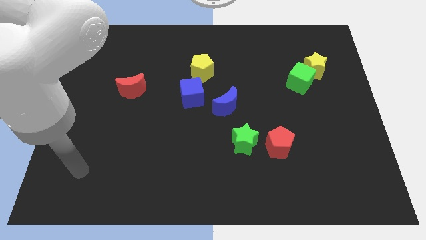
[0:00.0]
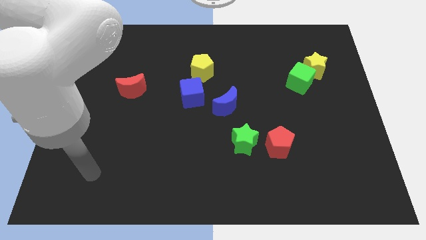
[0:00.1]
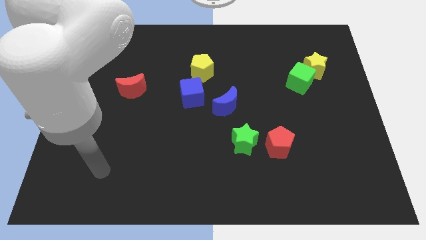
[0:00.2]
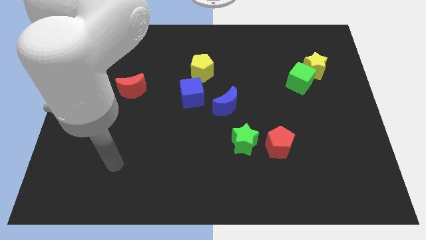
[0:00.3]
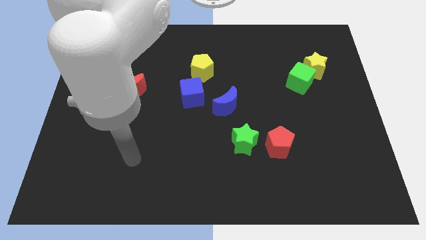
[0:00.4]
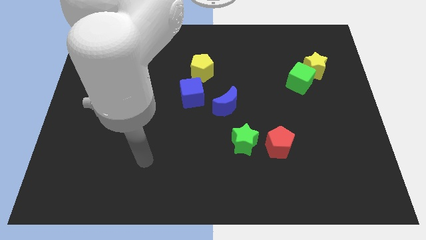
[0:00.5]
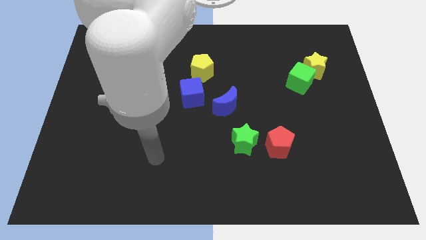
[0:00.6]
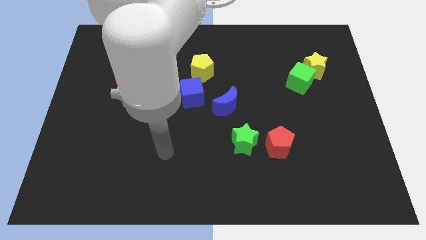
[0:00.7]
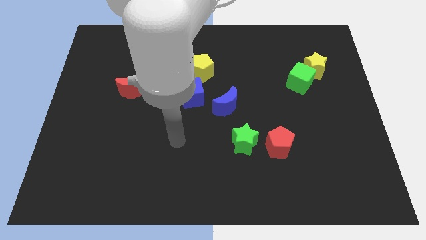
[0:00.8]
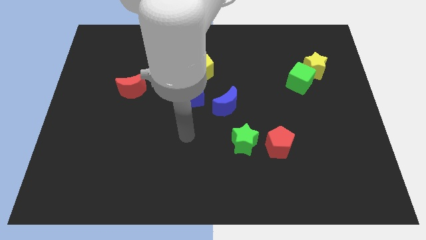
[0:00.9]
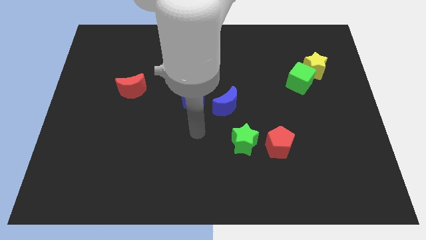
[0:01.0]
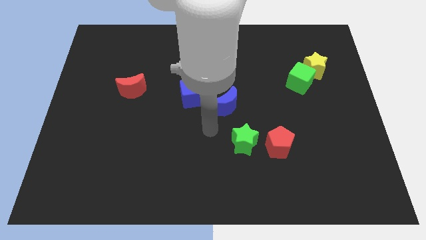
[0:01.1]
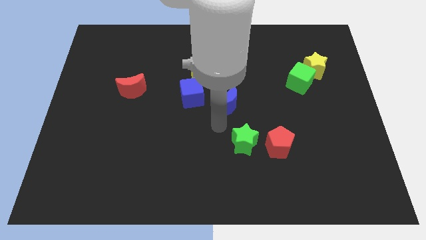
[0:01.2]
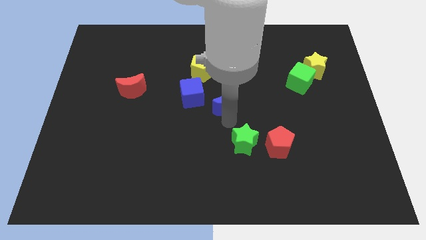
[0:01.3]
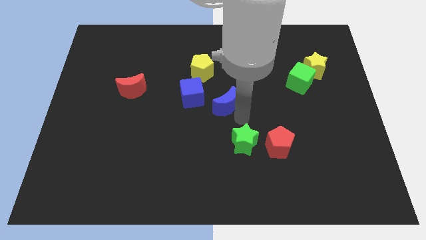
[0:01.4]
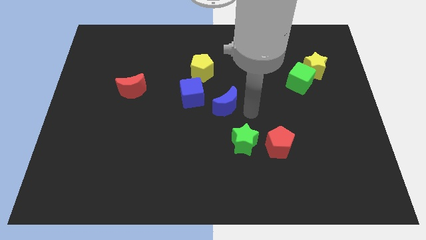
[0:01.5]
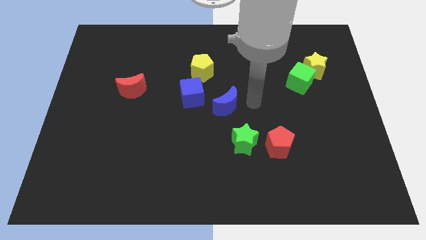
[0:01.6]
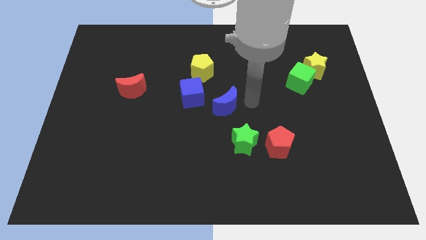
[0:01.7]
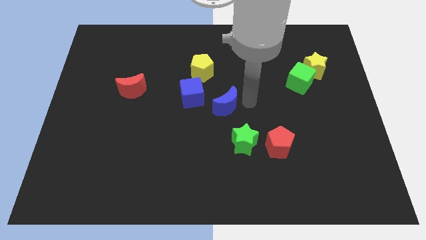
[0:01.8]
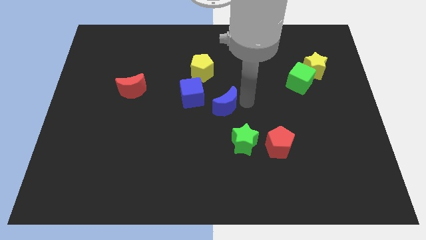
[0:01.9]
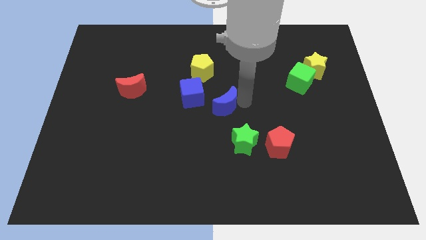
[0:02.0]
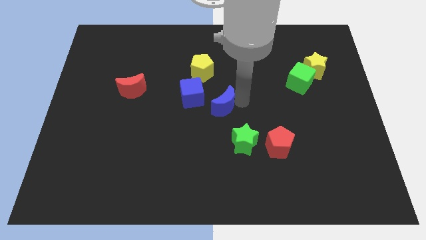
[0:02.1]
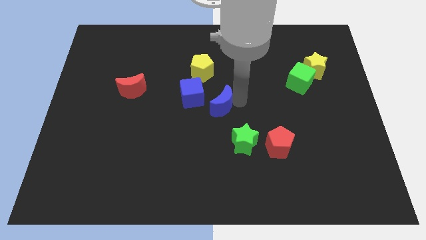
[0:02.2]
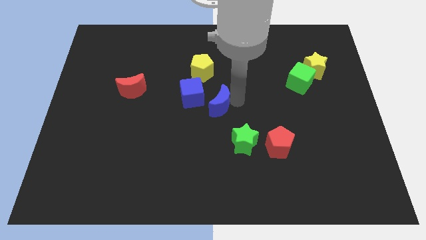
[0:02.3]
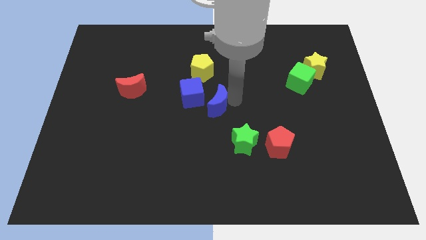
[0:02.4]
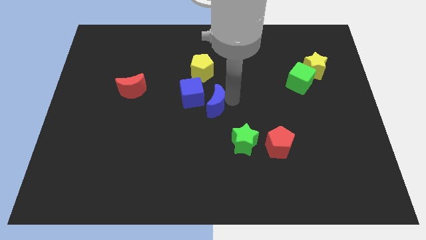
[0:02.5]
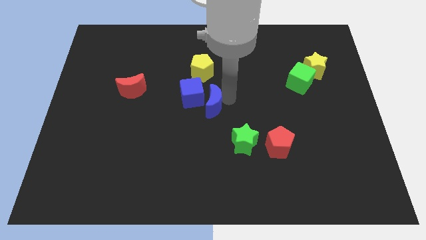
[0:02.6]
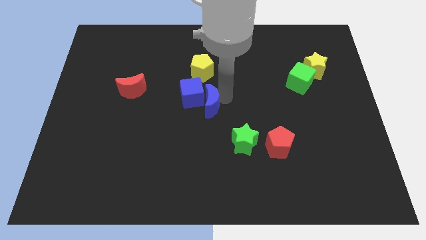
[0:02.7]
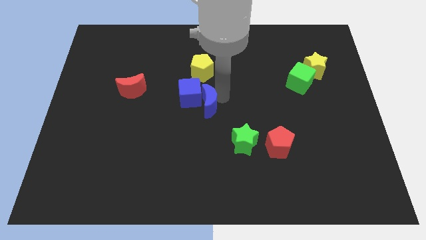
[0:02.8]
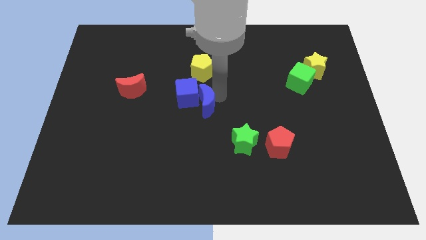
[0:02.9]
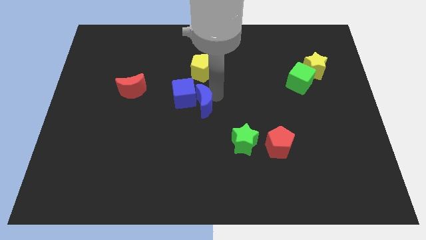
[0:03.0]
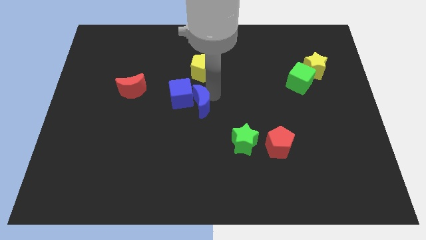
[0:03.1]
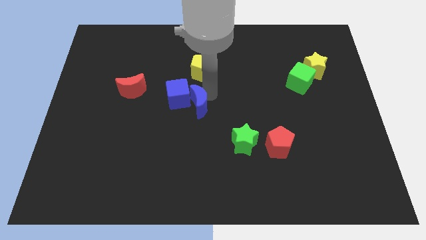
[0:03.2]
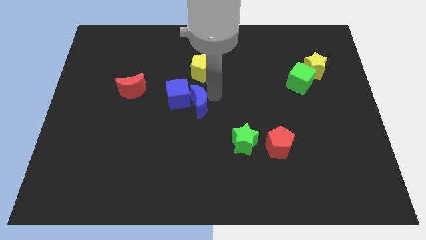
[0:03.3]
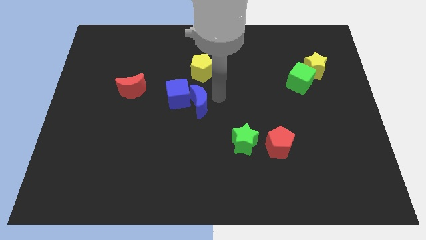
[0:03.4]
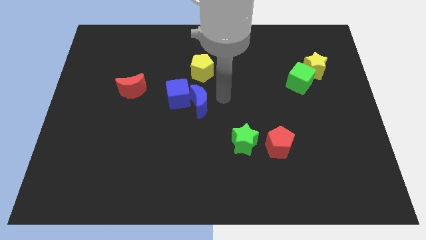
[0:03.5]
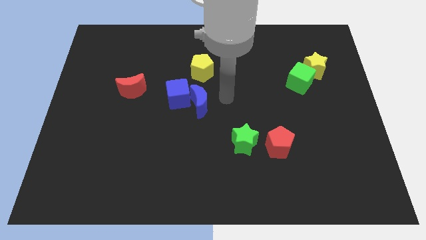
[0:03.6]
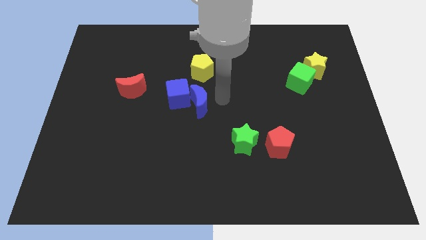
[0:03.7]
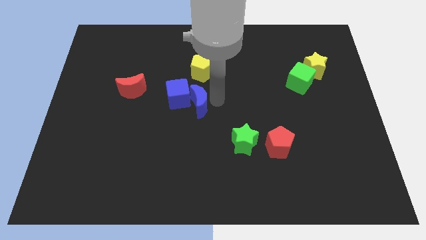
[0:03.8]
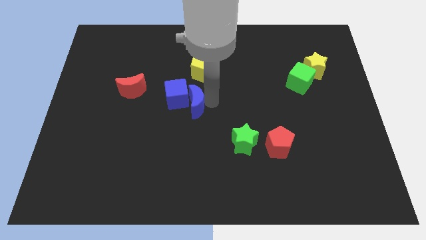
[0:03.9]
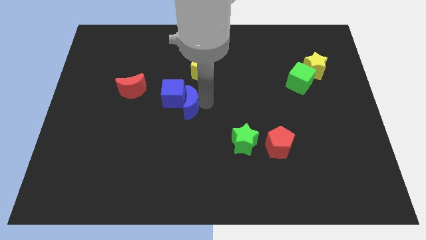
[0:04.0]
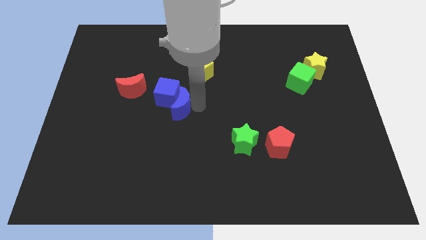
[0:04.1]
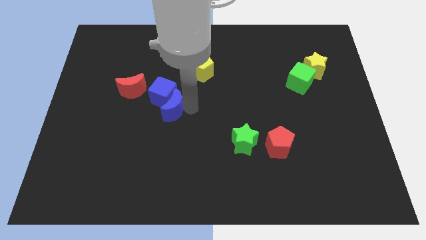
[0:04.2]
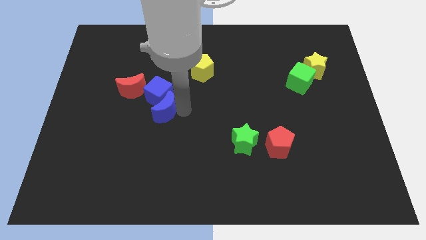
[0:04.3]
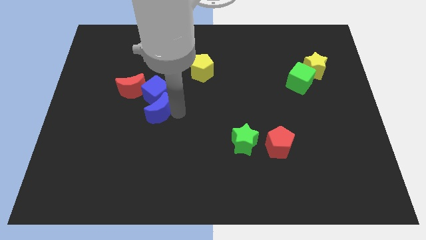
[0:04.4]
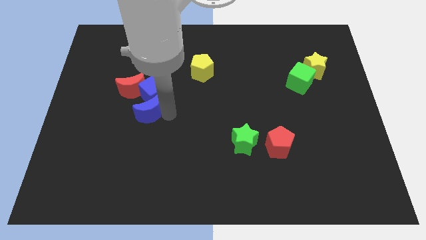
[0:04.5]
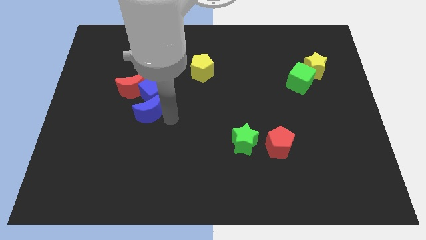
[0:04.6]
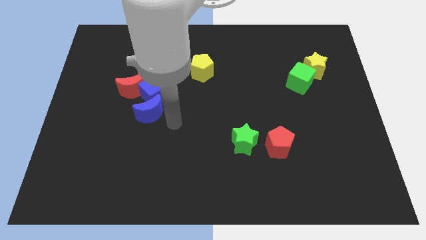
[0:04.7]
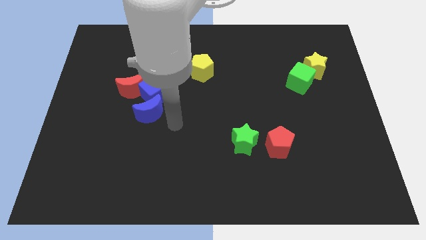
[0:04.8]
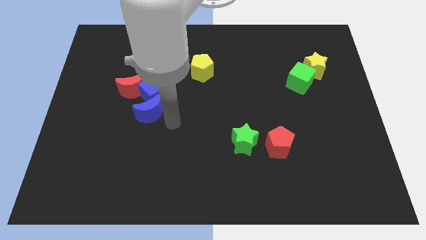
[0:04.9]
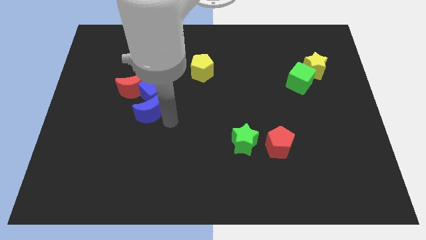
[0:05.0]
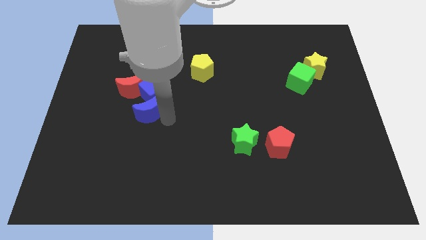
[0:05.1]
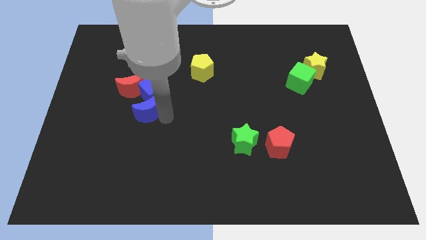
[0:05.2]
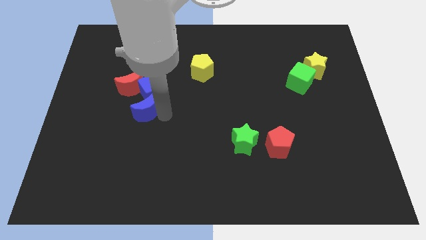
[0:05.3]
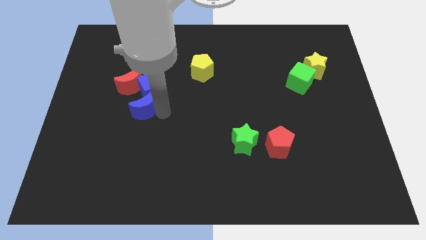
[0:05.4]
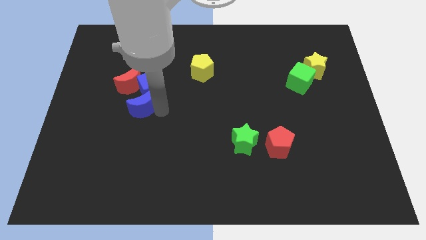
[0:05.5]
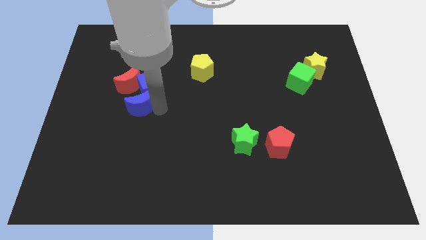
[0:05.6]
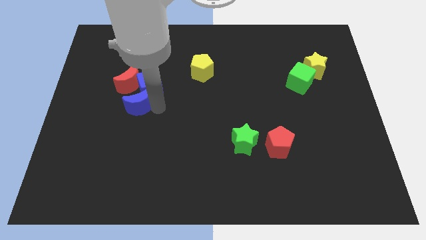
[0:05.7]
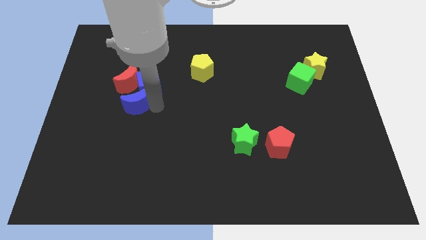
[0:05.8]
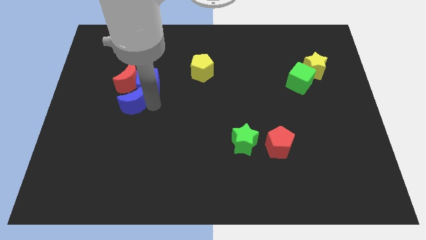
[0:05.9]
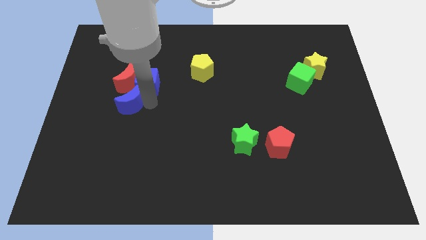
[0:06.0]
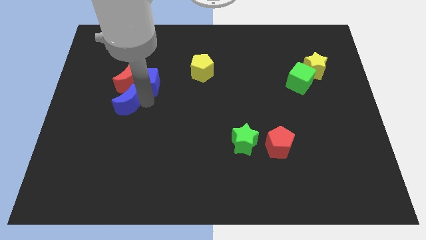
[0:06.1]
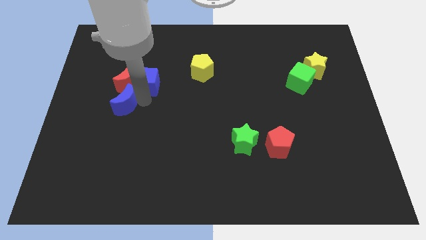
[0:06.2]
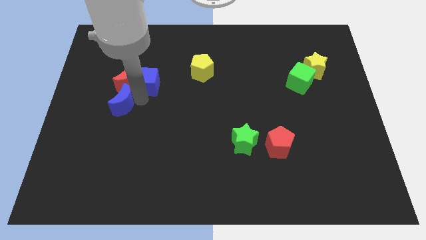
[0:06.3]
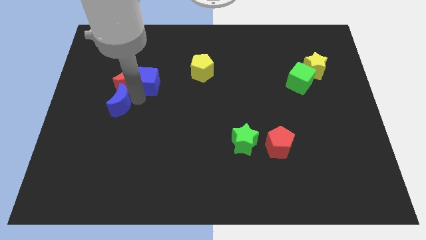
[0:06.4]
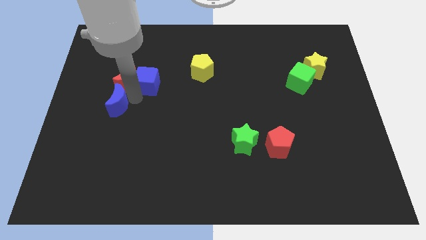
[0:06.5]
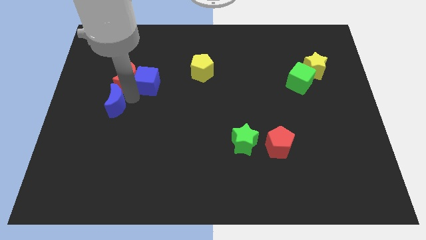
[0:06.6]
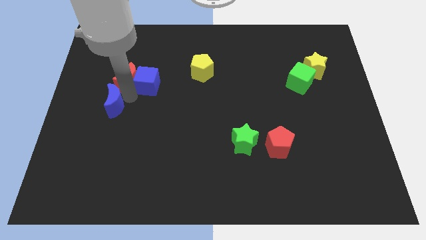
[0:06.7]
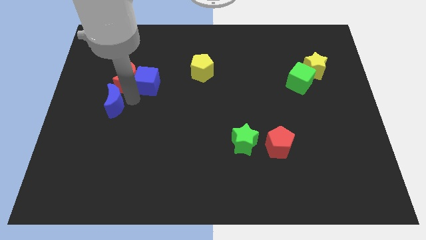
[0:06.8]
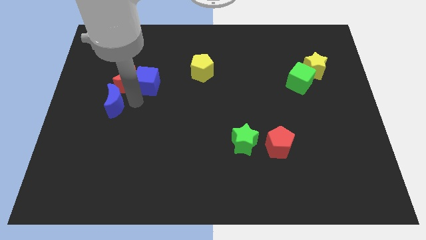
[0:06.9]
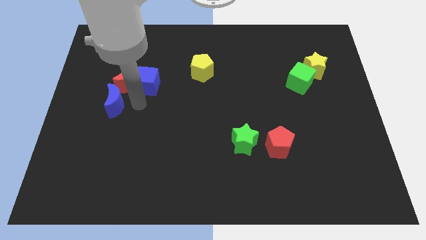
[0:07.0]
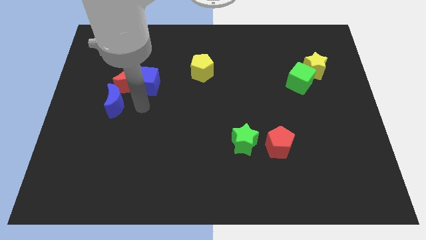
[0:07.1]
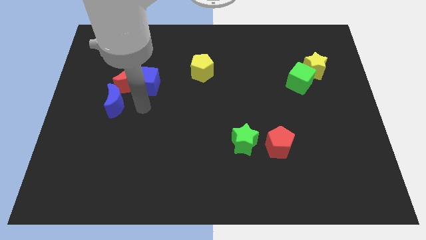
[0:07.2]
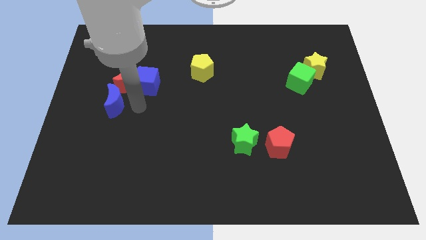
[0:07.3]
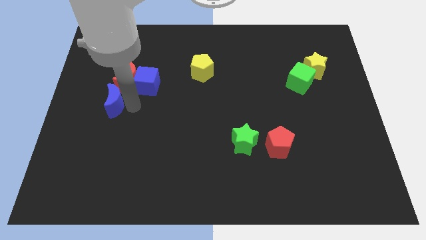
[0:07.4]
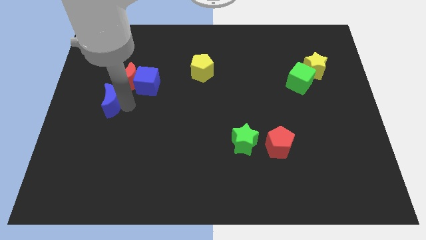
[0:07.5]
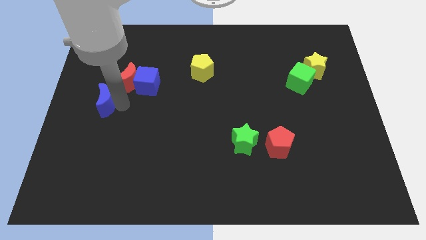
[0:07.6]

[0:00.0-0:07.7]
push the blue moon to the left side

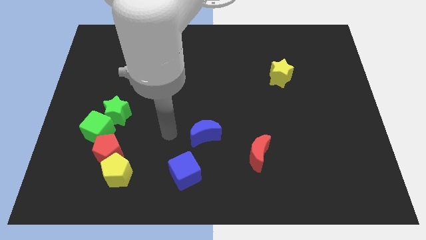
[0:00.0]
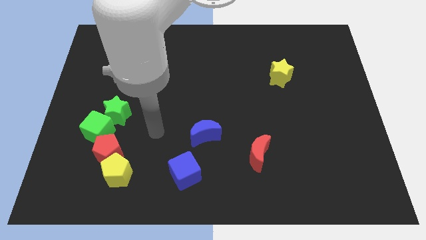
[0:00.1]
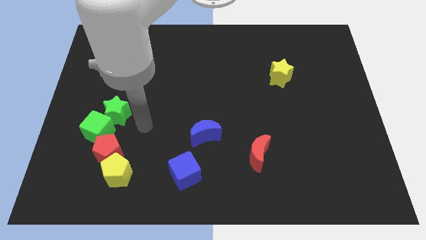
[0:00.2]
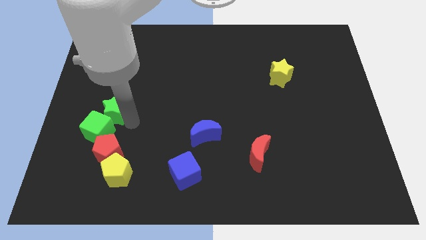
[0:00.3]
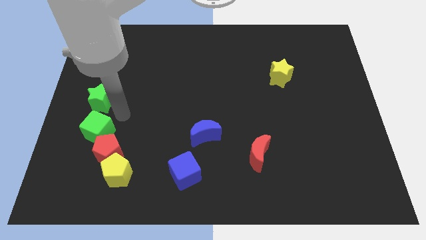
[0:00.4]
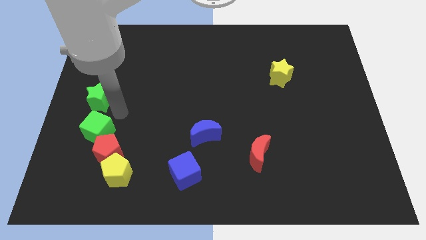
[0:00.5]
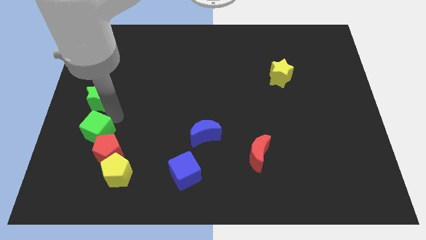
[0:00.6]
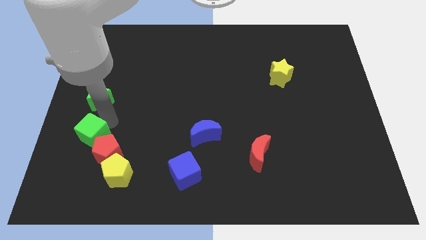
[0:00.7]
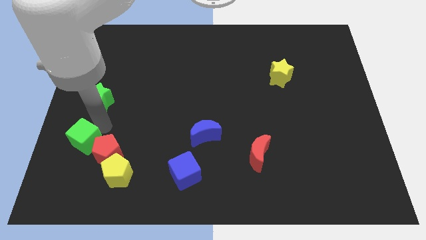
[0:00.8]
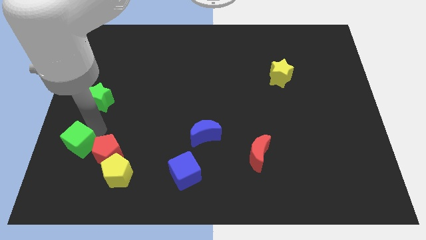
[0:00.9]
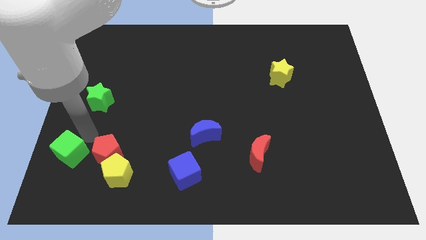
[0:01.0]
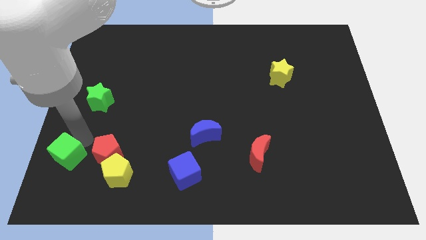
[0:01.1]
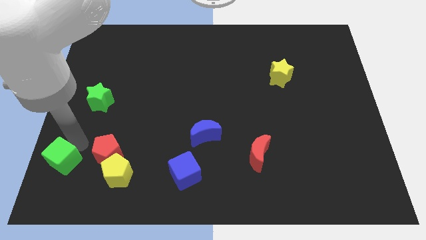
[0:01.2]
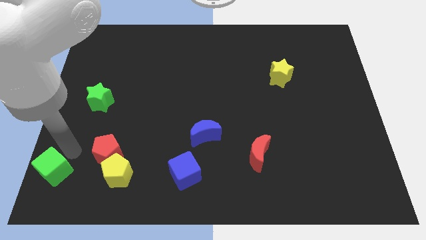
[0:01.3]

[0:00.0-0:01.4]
move the green cube to the bottom left
